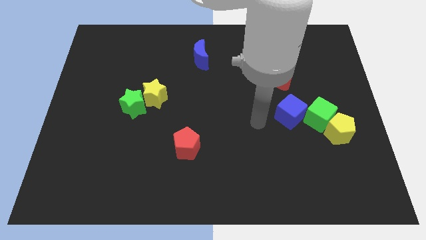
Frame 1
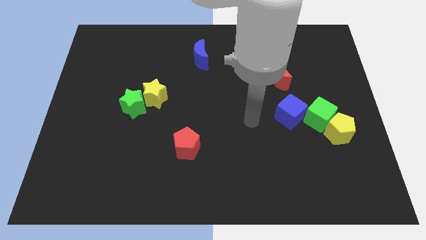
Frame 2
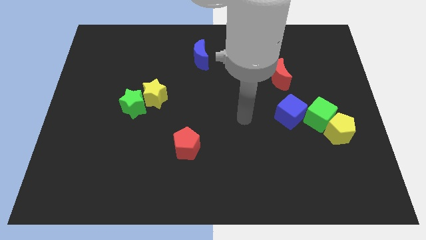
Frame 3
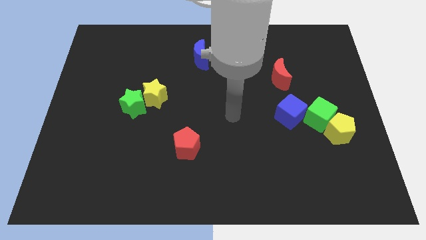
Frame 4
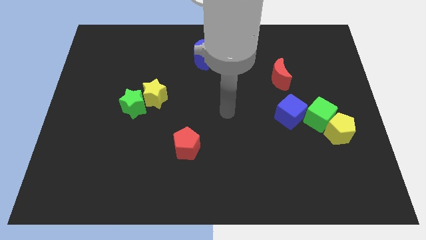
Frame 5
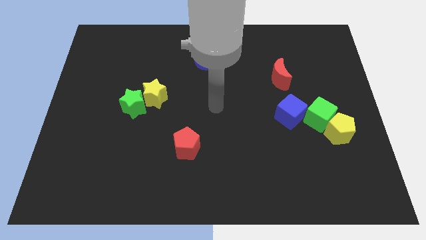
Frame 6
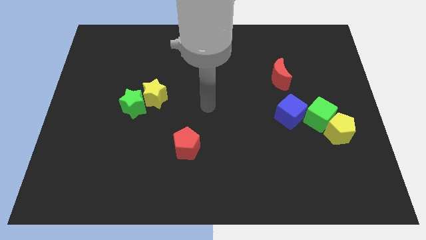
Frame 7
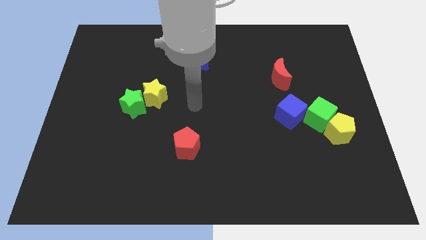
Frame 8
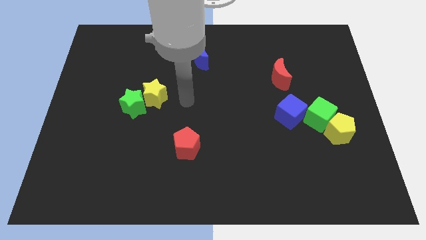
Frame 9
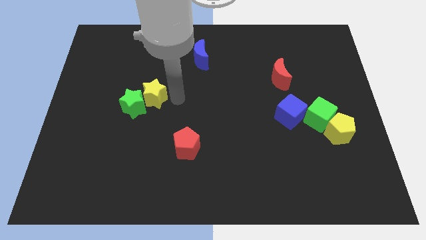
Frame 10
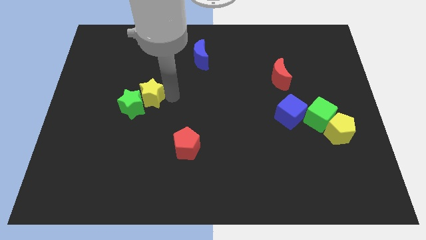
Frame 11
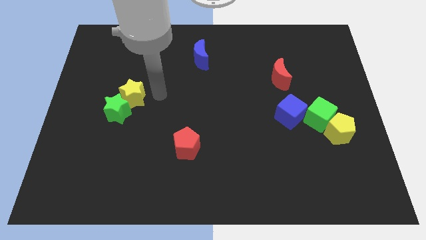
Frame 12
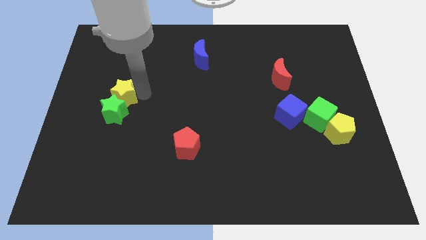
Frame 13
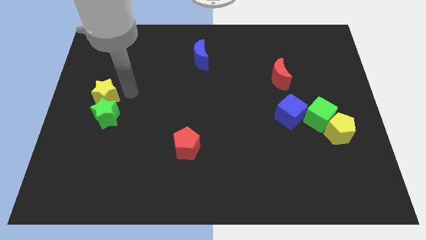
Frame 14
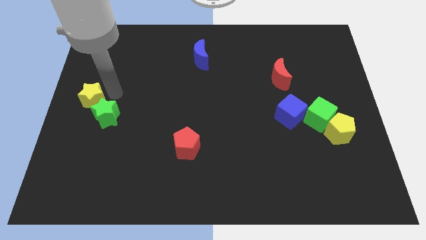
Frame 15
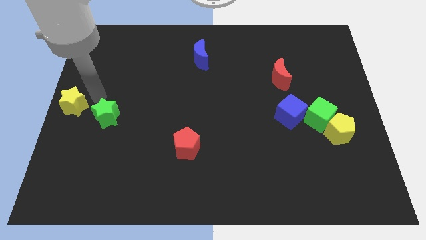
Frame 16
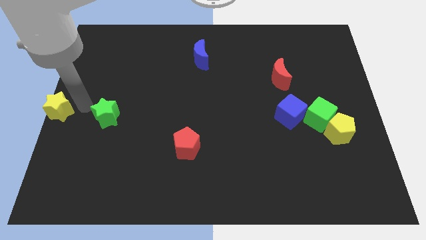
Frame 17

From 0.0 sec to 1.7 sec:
pull the green star apart from the yellow star

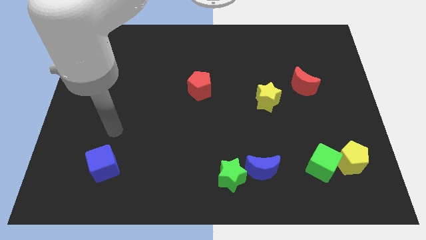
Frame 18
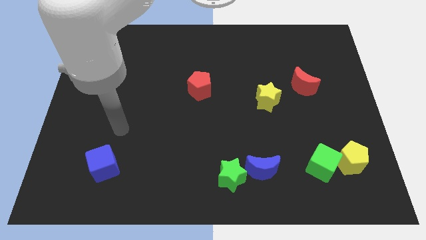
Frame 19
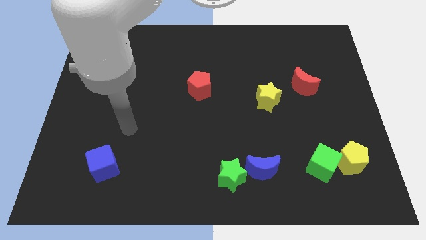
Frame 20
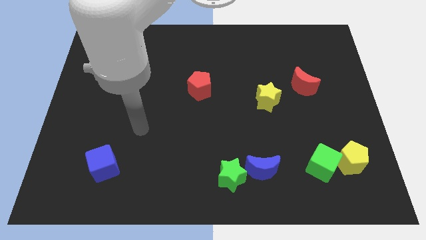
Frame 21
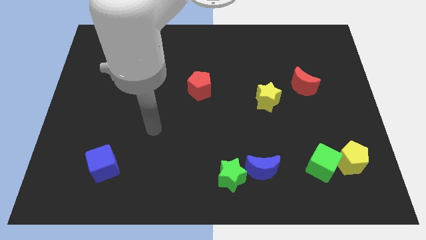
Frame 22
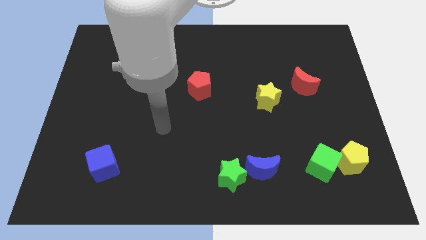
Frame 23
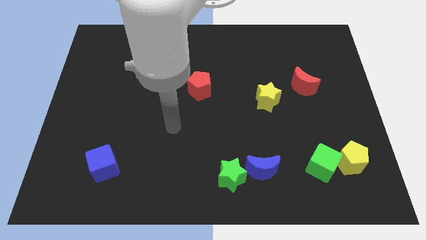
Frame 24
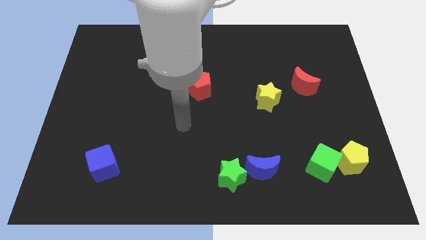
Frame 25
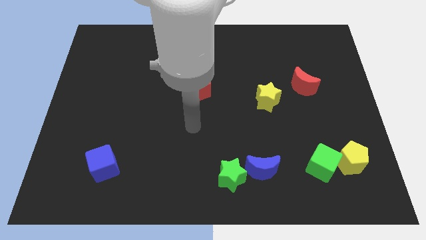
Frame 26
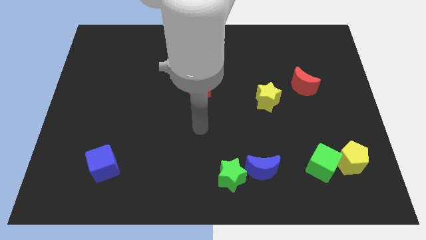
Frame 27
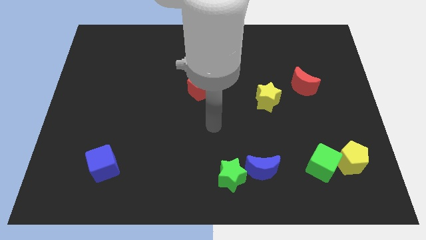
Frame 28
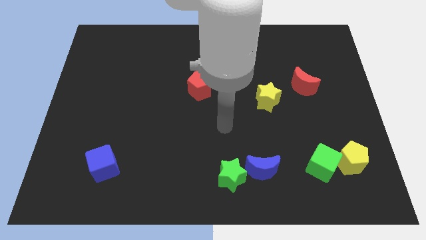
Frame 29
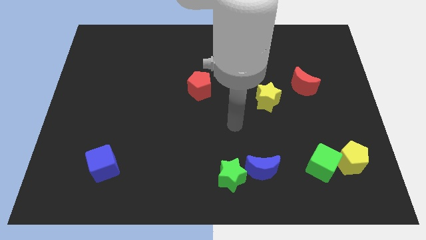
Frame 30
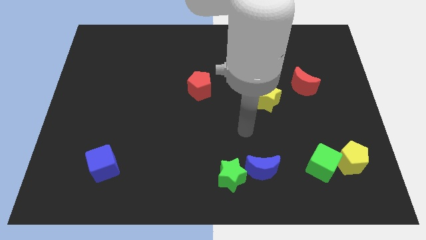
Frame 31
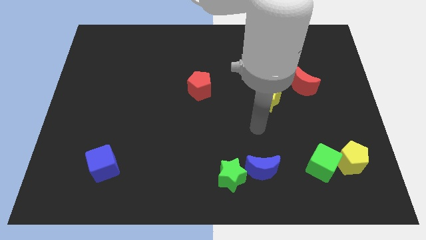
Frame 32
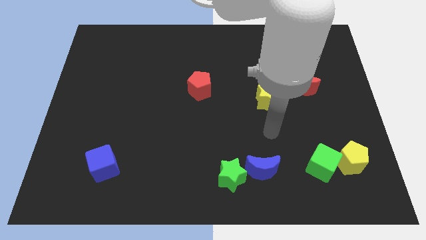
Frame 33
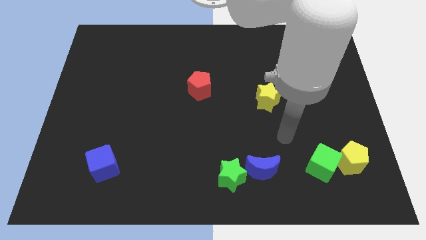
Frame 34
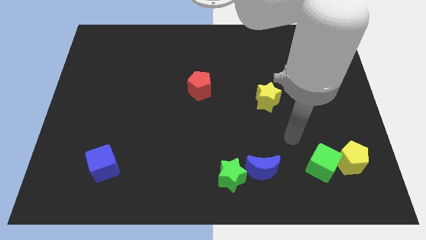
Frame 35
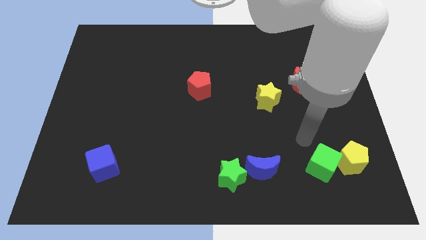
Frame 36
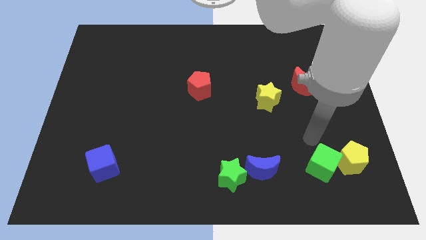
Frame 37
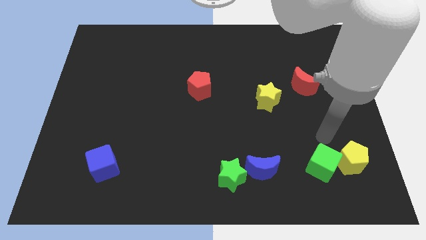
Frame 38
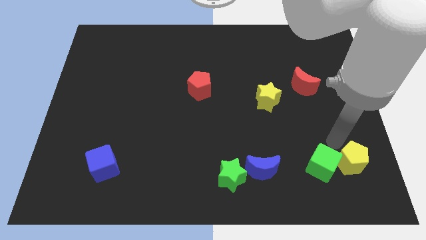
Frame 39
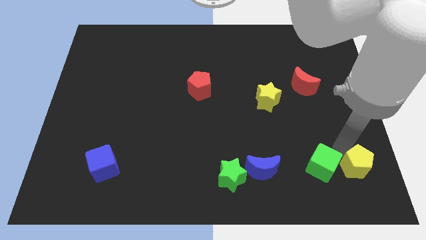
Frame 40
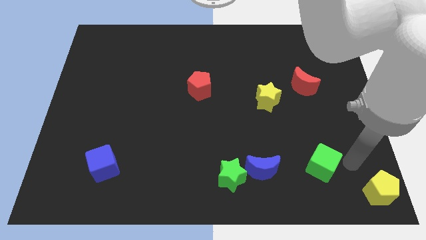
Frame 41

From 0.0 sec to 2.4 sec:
separate the green cube from the yellow pentagon

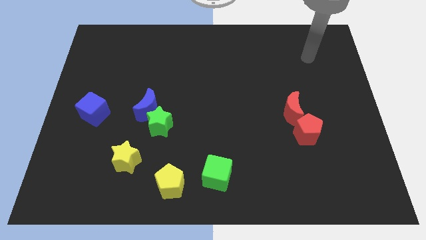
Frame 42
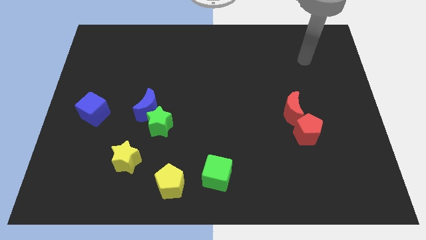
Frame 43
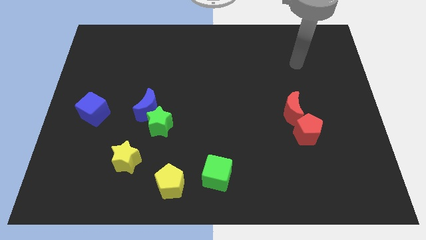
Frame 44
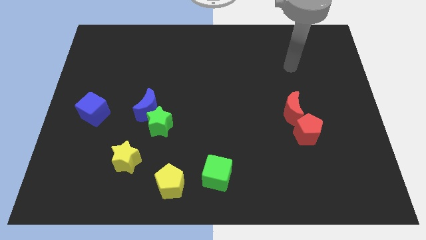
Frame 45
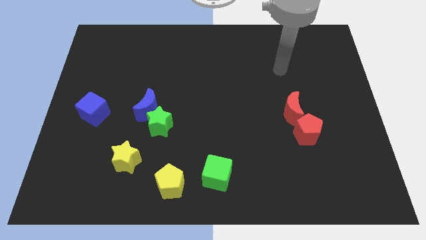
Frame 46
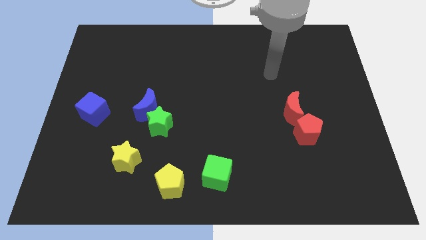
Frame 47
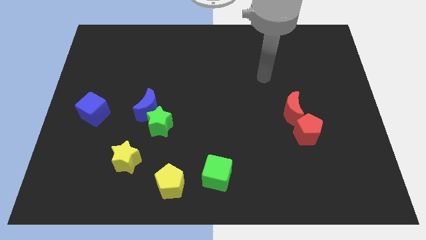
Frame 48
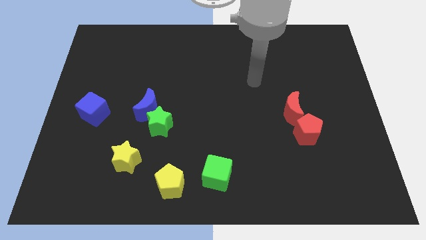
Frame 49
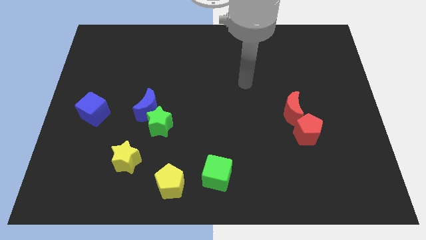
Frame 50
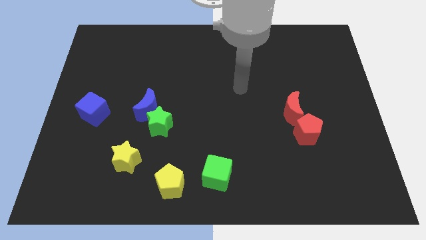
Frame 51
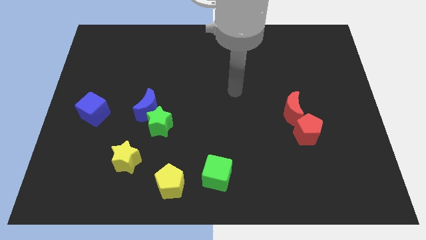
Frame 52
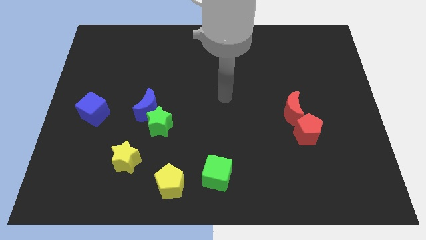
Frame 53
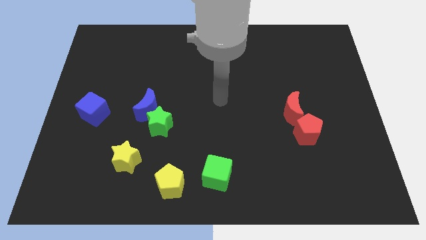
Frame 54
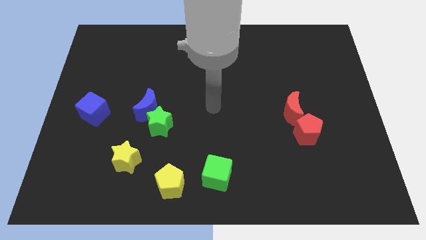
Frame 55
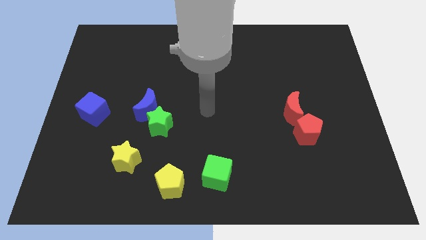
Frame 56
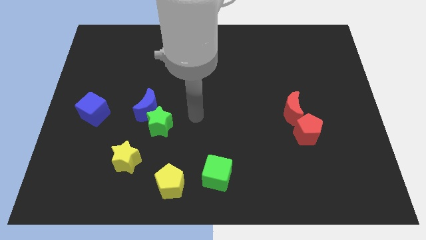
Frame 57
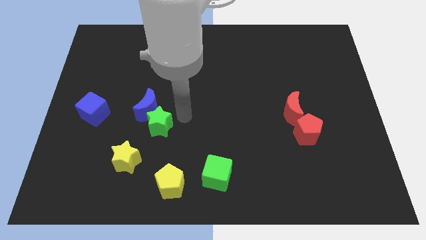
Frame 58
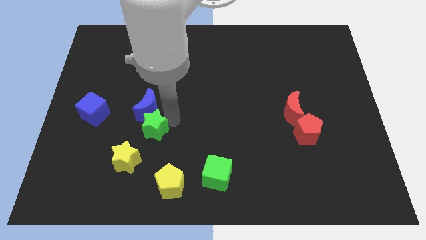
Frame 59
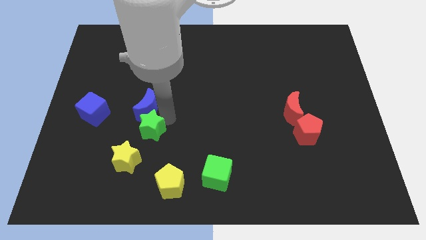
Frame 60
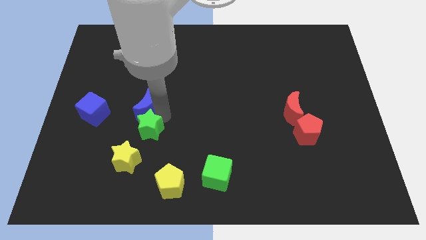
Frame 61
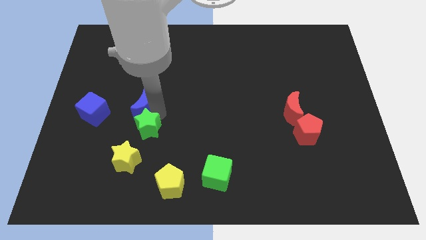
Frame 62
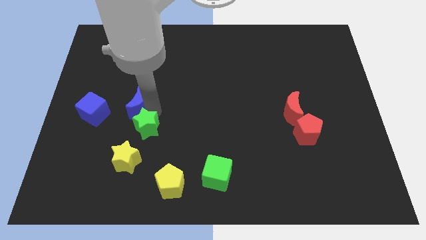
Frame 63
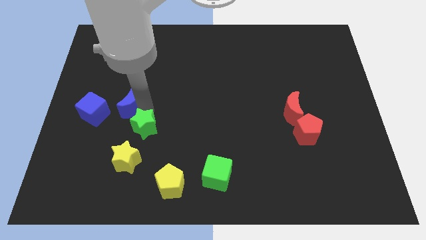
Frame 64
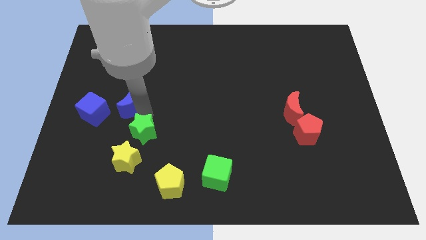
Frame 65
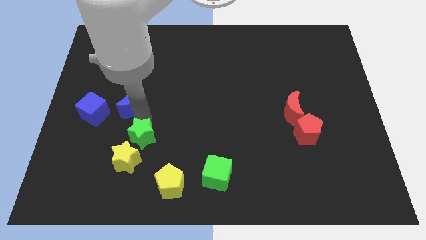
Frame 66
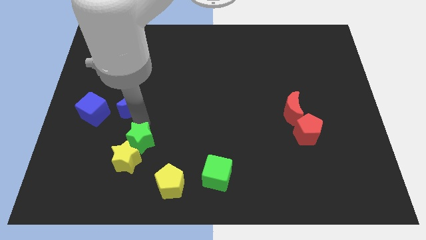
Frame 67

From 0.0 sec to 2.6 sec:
separate the blue moon from the green star

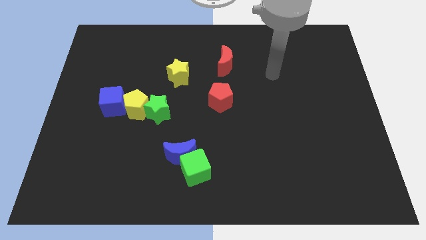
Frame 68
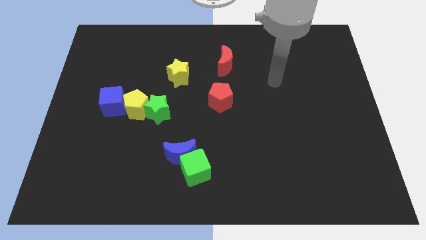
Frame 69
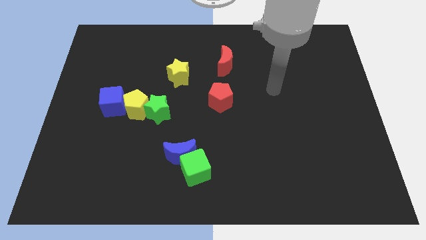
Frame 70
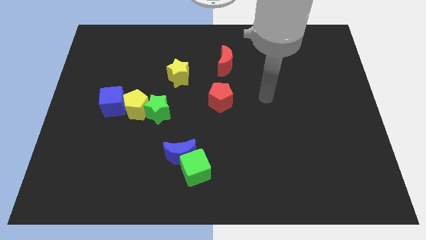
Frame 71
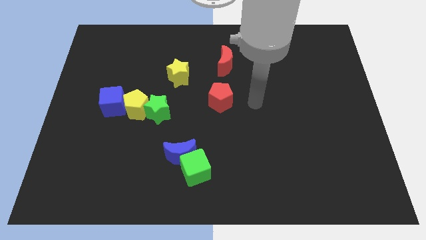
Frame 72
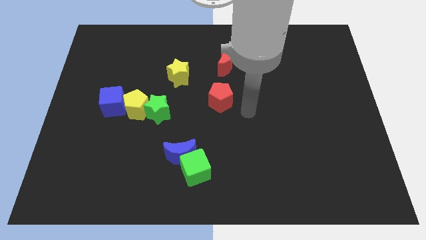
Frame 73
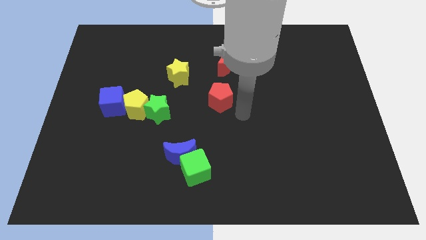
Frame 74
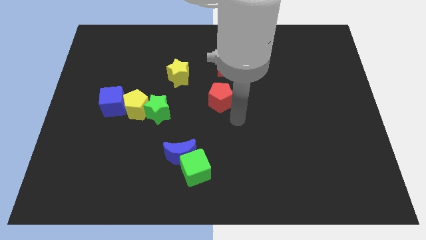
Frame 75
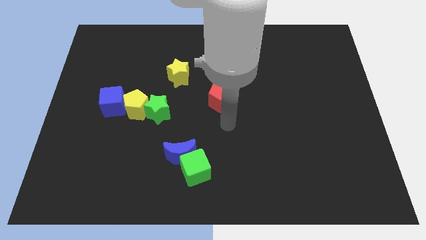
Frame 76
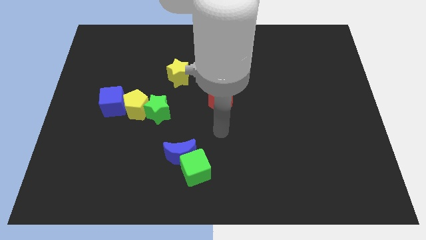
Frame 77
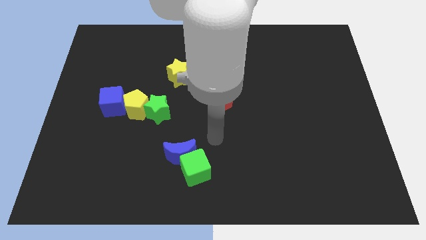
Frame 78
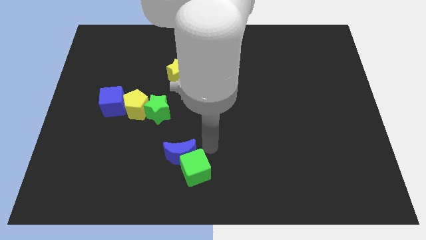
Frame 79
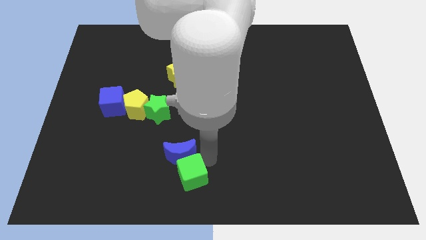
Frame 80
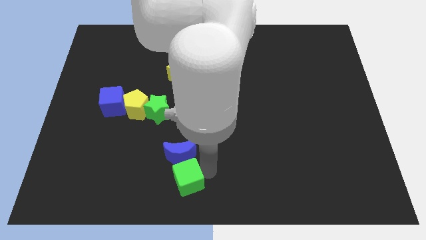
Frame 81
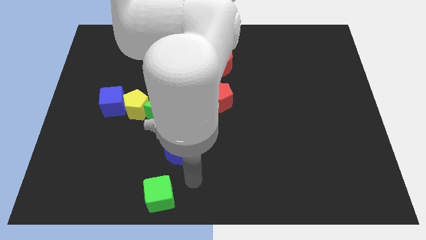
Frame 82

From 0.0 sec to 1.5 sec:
separate the blue moon from the green cube

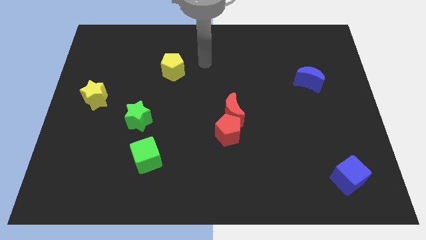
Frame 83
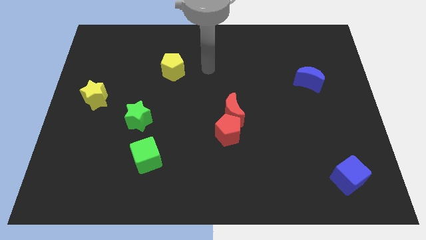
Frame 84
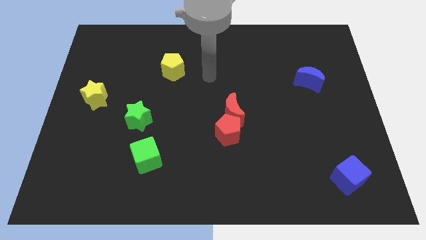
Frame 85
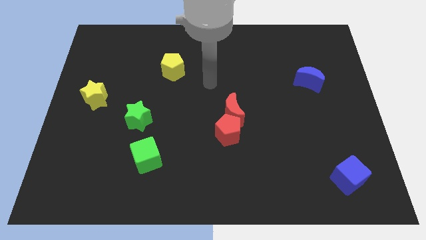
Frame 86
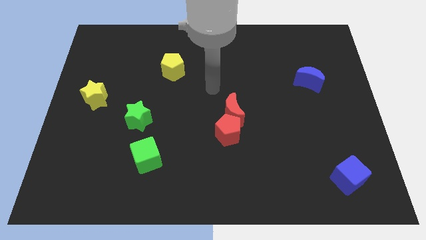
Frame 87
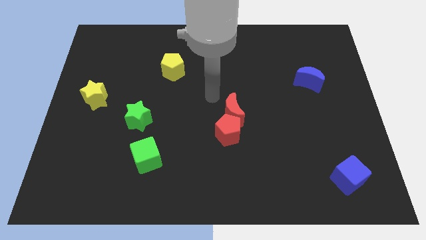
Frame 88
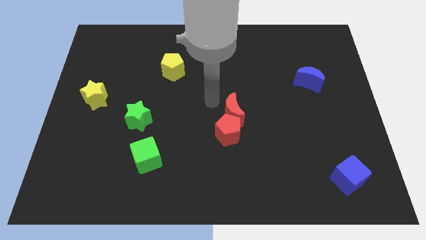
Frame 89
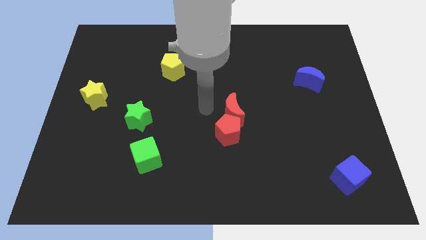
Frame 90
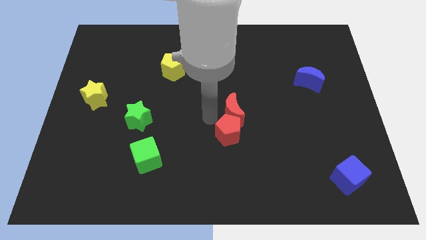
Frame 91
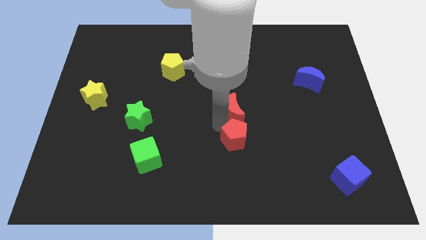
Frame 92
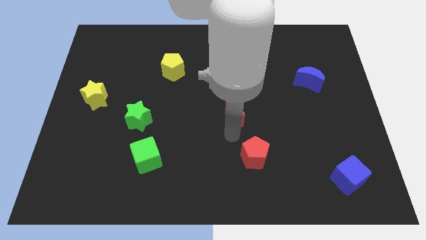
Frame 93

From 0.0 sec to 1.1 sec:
pull the red moon apart from the red pentagon

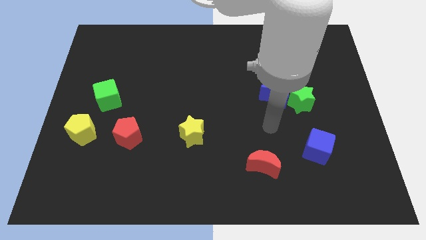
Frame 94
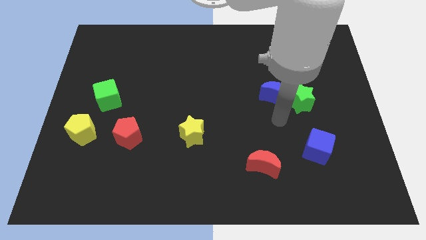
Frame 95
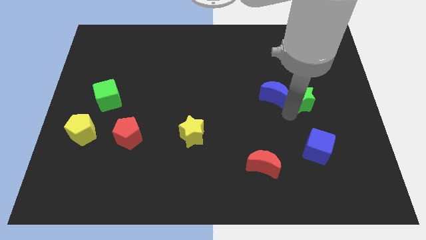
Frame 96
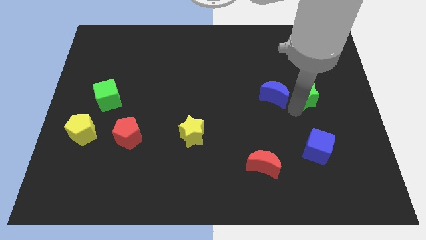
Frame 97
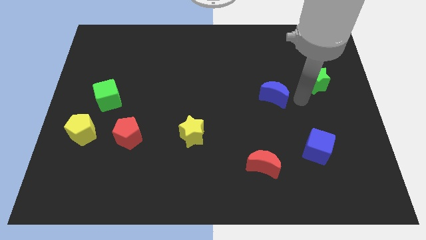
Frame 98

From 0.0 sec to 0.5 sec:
move the blue moon away from the green star
